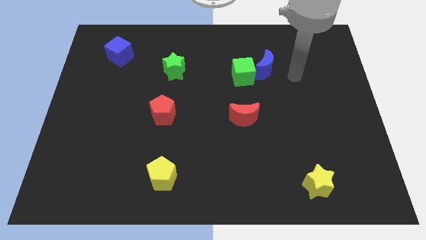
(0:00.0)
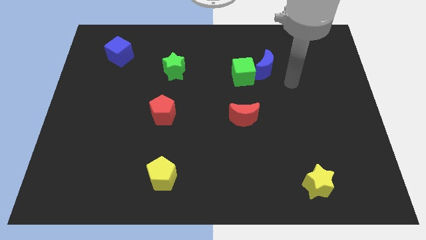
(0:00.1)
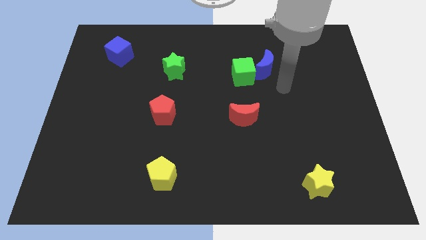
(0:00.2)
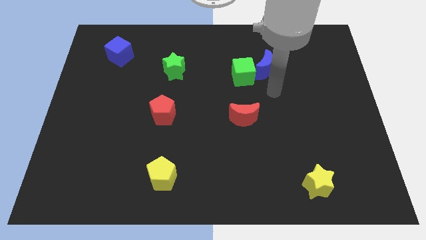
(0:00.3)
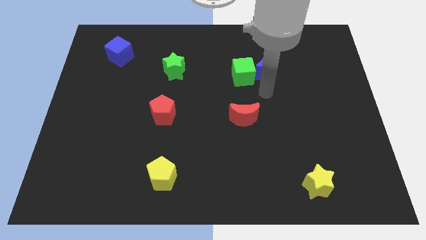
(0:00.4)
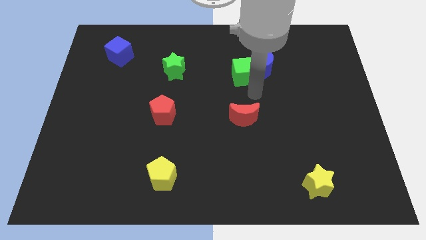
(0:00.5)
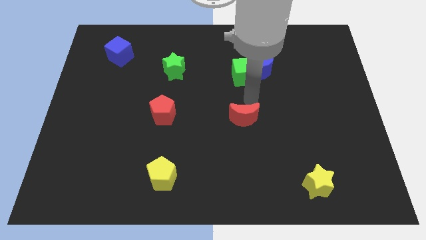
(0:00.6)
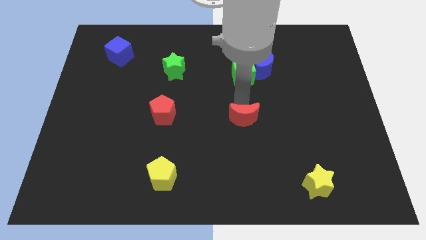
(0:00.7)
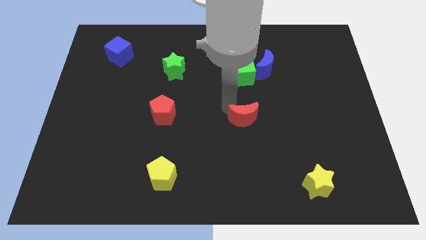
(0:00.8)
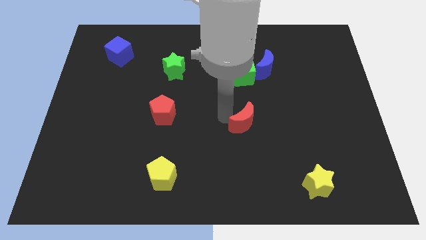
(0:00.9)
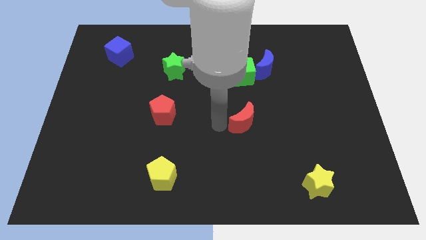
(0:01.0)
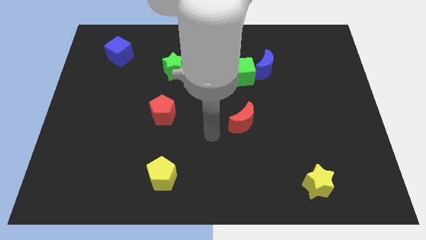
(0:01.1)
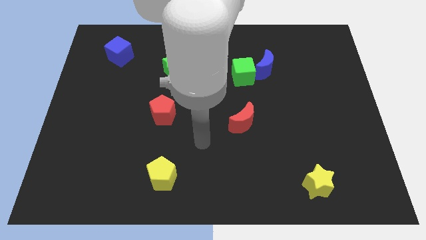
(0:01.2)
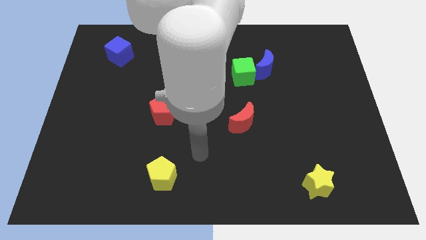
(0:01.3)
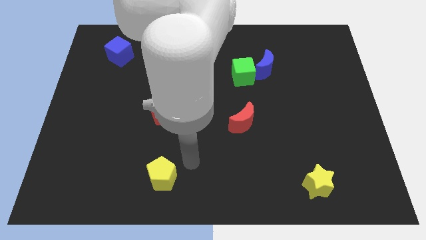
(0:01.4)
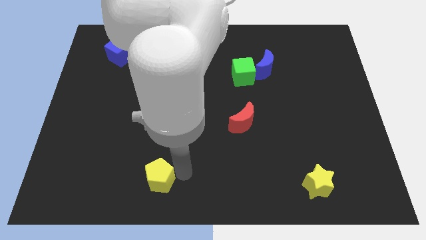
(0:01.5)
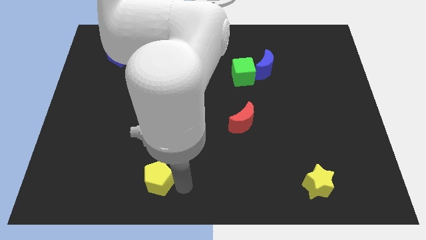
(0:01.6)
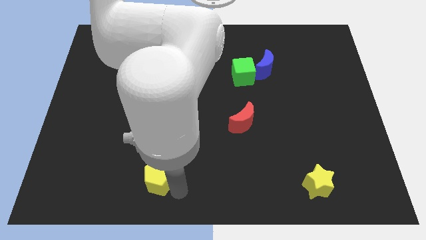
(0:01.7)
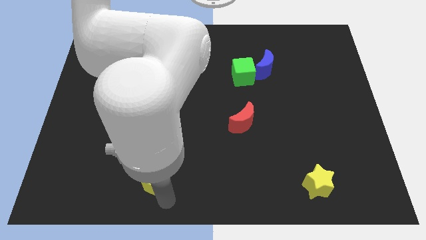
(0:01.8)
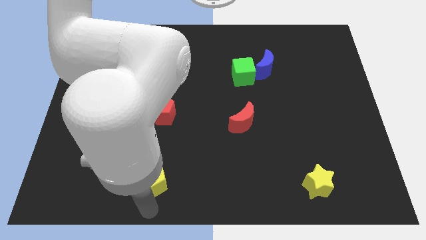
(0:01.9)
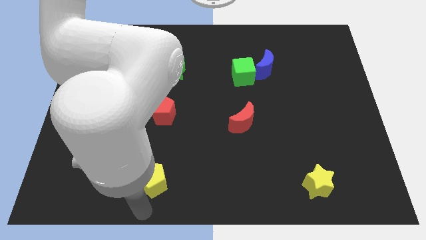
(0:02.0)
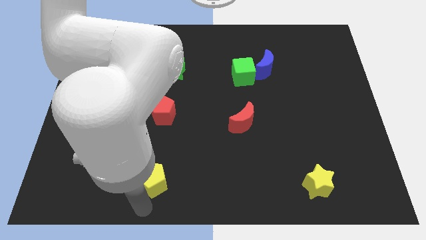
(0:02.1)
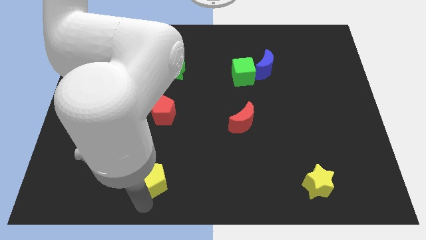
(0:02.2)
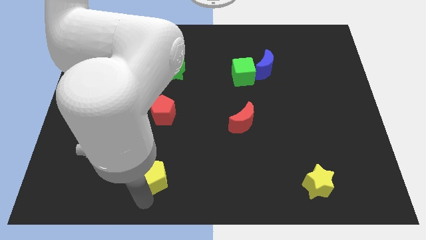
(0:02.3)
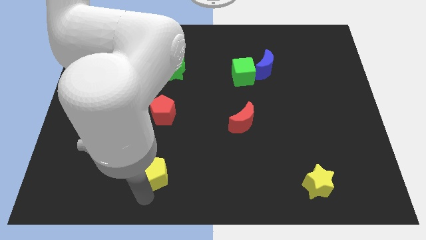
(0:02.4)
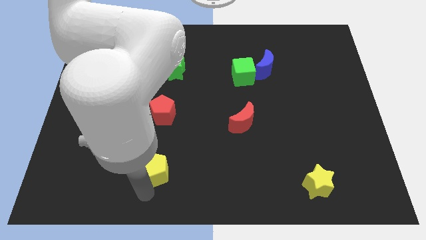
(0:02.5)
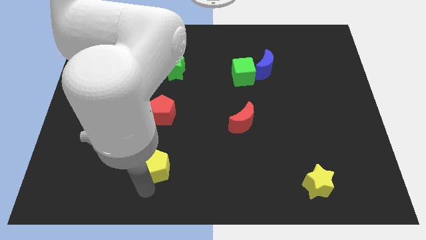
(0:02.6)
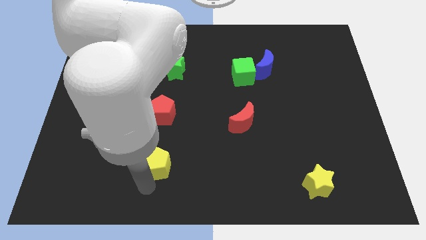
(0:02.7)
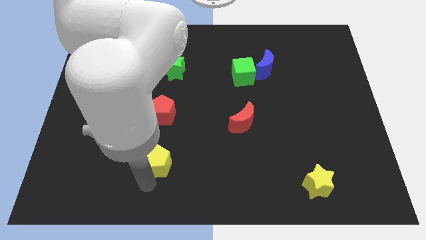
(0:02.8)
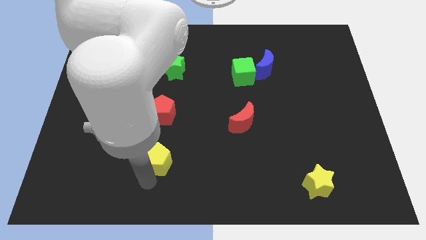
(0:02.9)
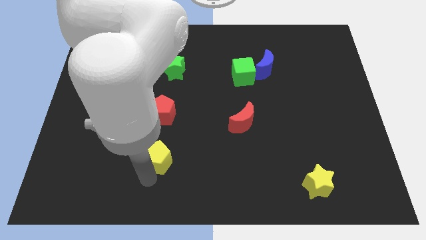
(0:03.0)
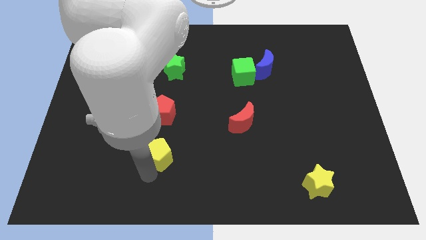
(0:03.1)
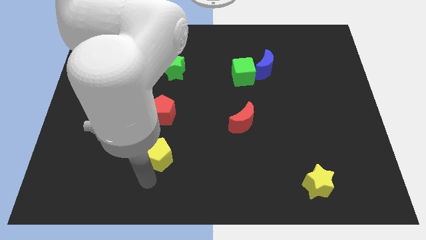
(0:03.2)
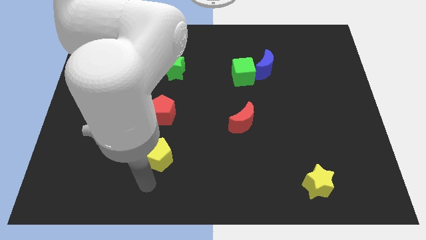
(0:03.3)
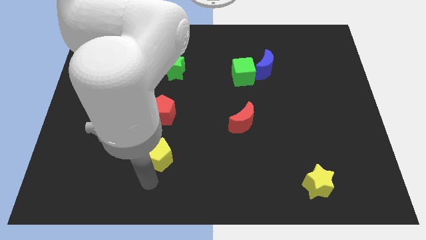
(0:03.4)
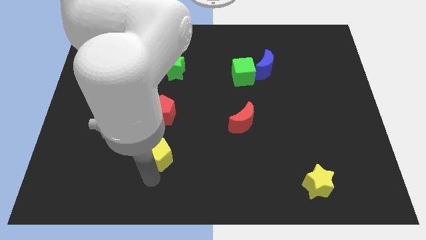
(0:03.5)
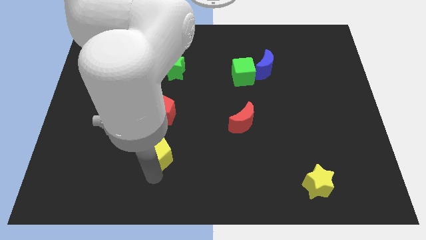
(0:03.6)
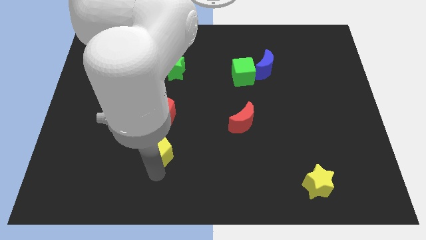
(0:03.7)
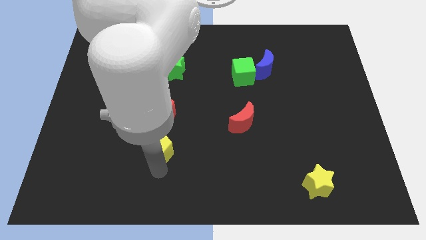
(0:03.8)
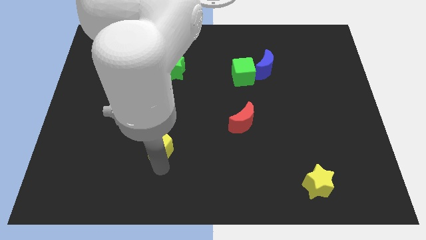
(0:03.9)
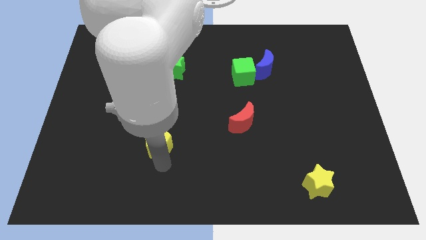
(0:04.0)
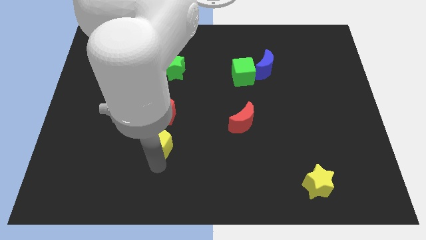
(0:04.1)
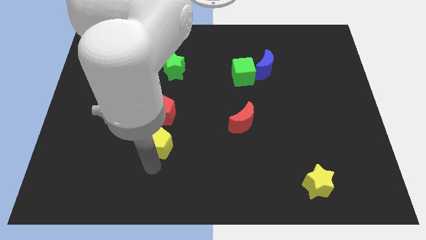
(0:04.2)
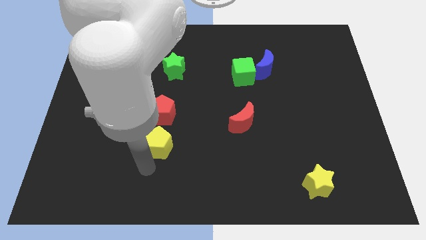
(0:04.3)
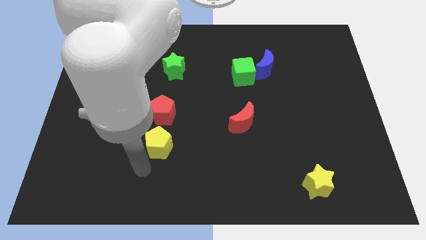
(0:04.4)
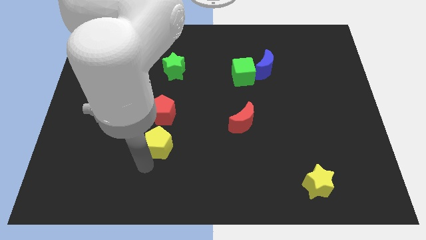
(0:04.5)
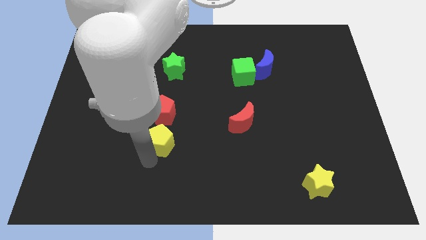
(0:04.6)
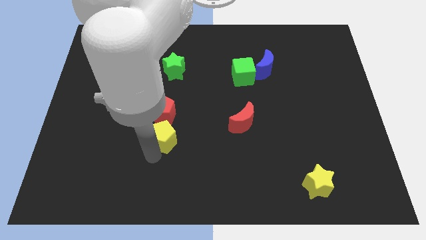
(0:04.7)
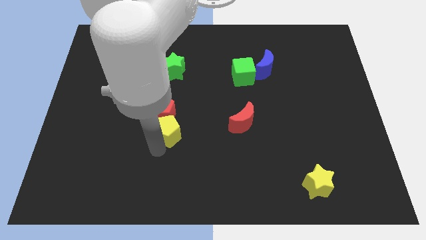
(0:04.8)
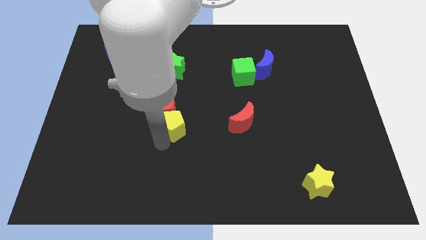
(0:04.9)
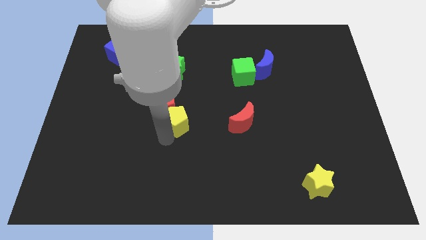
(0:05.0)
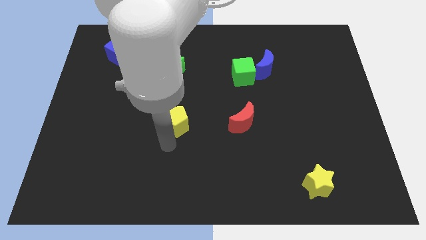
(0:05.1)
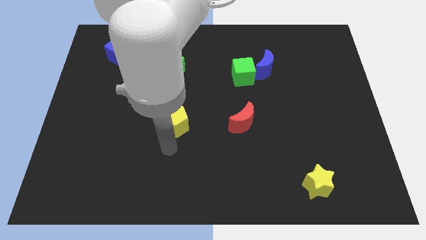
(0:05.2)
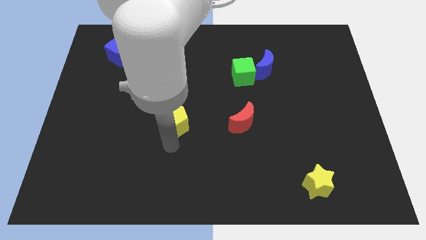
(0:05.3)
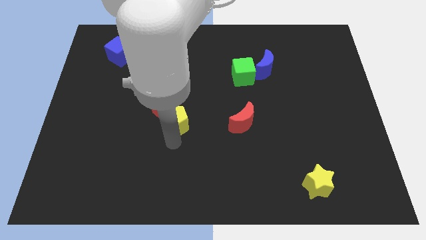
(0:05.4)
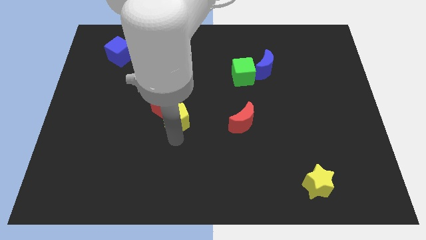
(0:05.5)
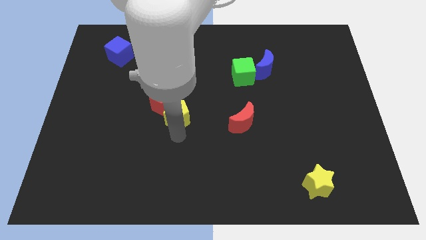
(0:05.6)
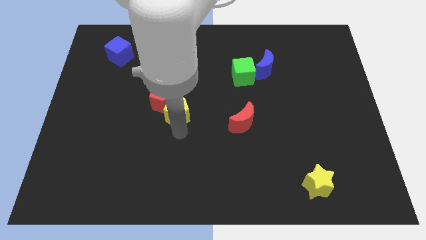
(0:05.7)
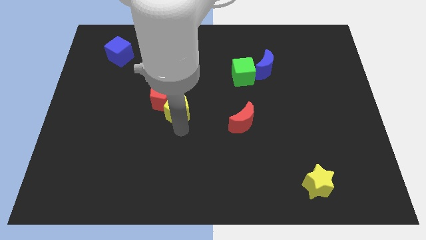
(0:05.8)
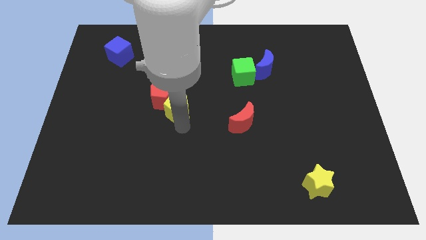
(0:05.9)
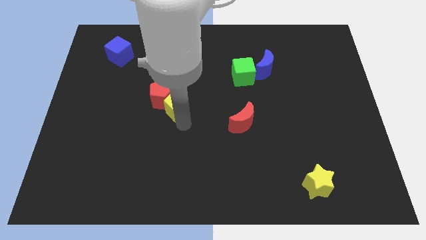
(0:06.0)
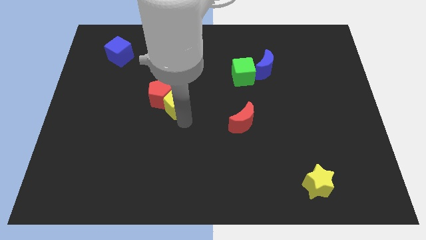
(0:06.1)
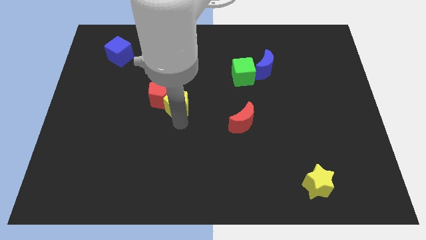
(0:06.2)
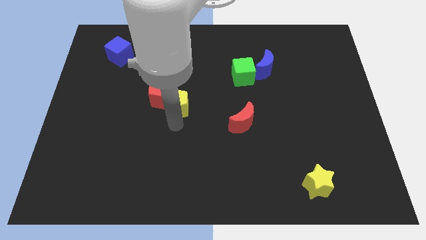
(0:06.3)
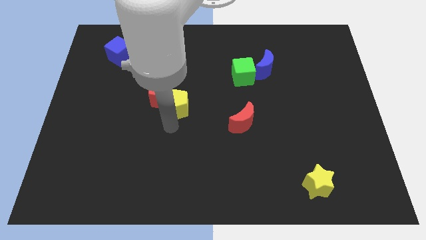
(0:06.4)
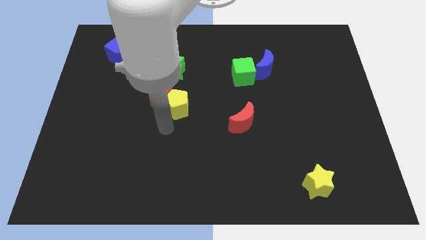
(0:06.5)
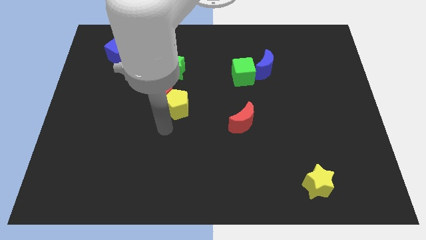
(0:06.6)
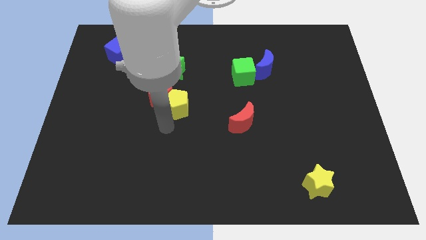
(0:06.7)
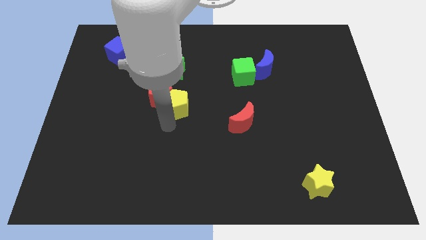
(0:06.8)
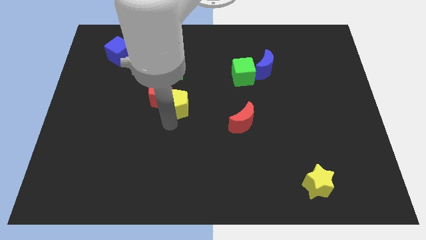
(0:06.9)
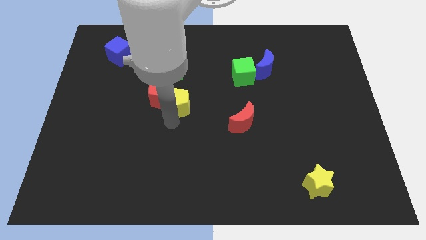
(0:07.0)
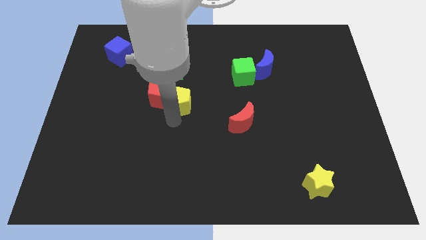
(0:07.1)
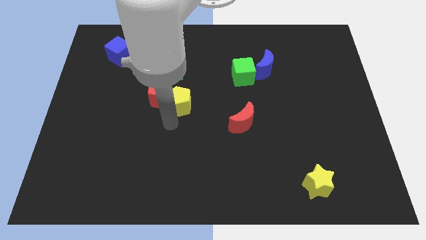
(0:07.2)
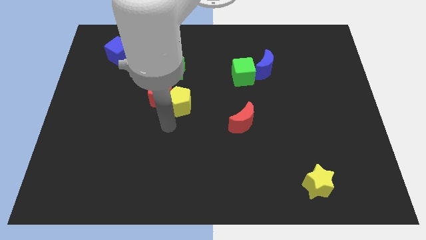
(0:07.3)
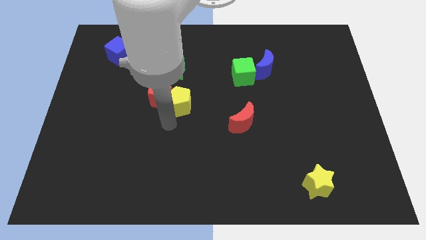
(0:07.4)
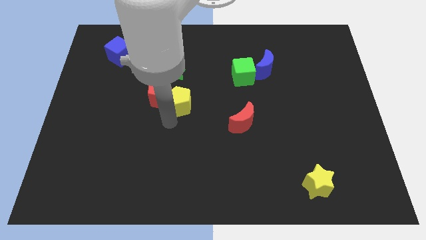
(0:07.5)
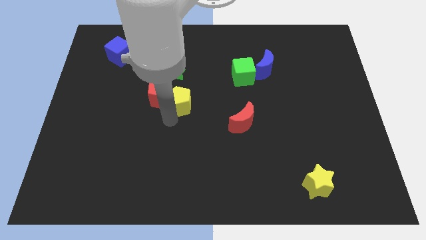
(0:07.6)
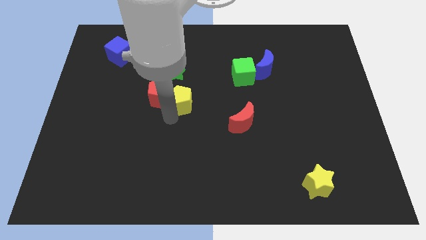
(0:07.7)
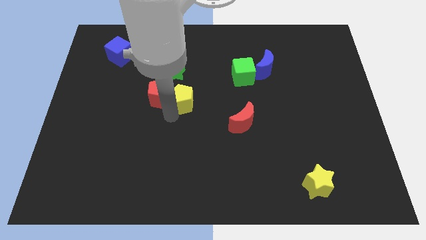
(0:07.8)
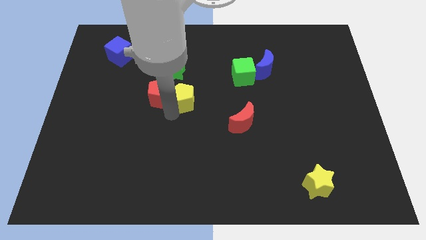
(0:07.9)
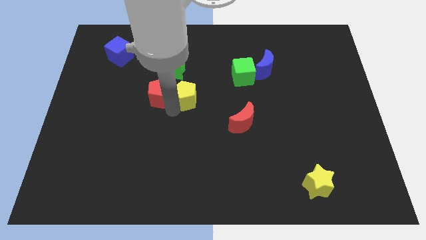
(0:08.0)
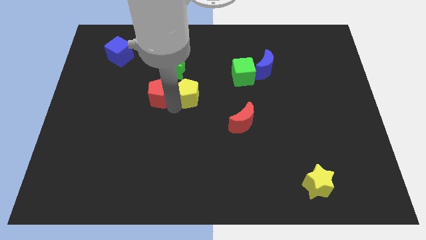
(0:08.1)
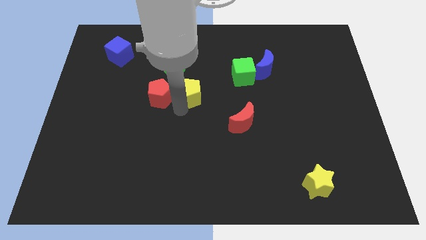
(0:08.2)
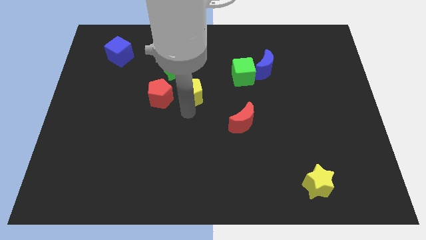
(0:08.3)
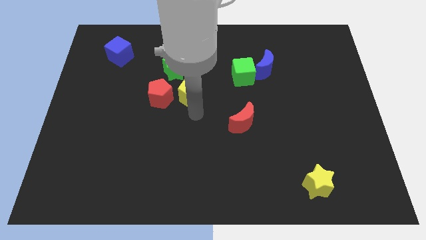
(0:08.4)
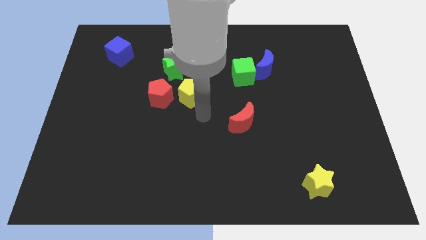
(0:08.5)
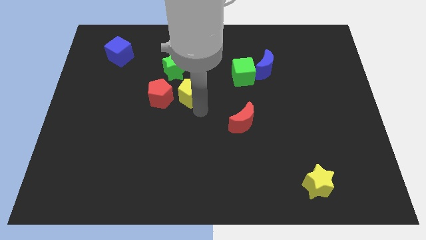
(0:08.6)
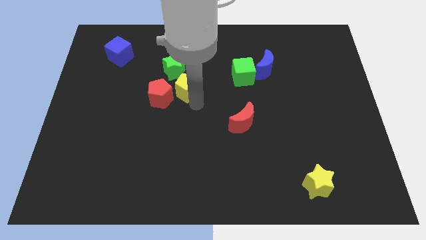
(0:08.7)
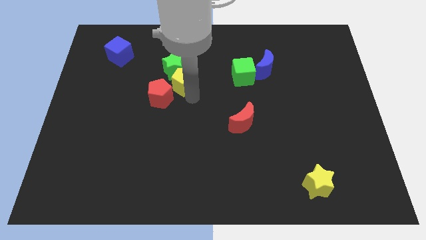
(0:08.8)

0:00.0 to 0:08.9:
push the yellow pentagon close to the green star
